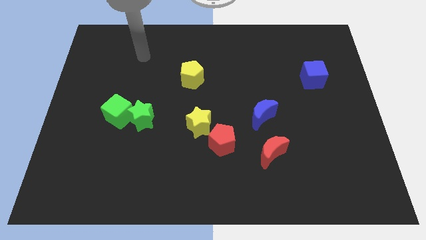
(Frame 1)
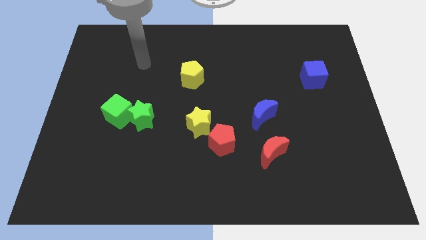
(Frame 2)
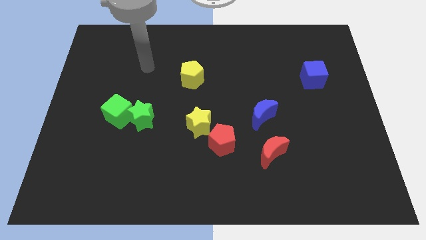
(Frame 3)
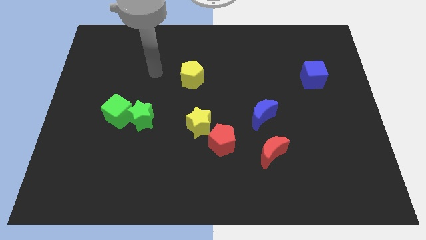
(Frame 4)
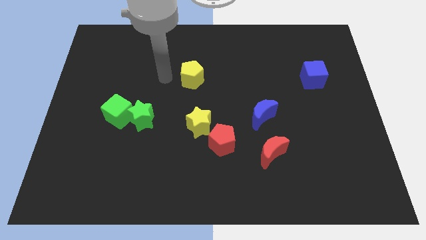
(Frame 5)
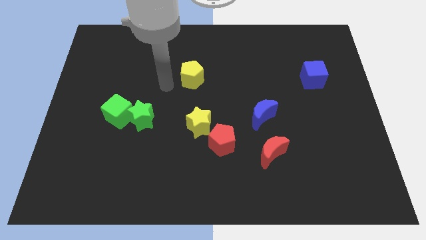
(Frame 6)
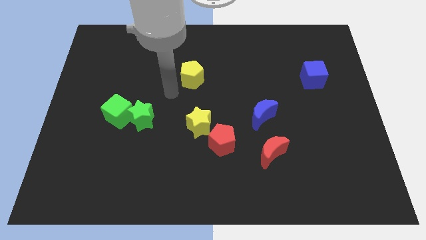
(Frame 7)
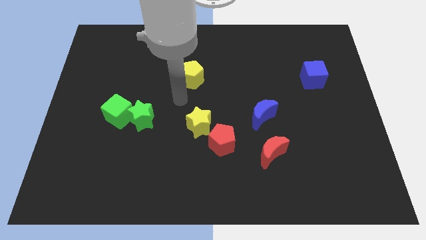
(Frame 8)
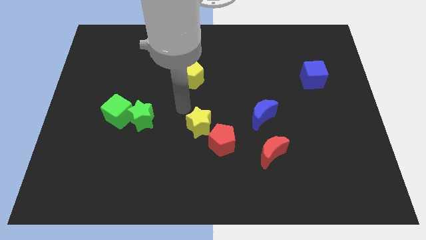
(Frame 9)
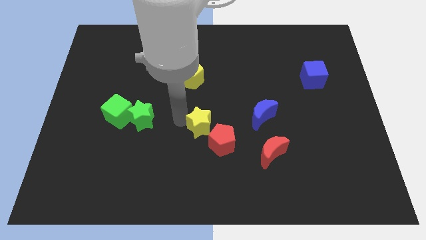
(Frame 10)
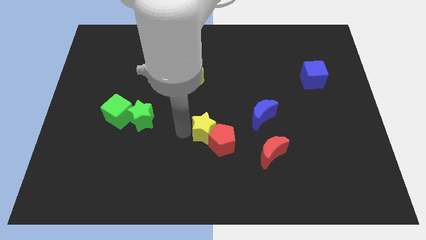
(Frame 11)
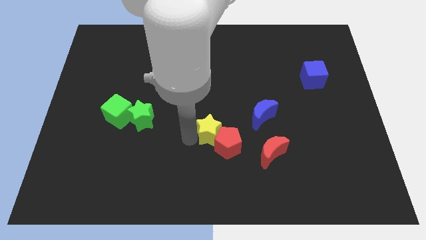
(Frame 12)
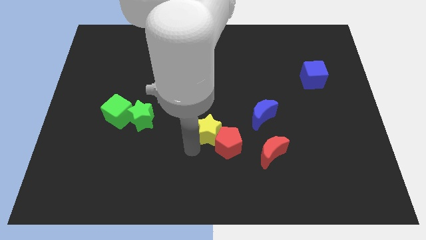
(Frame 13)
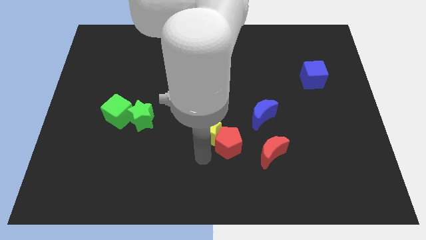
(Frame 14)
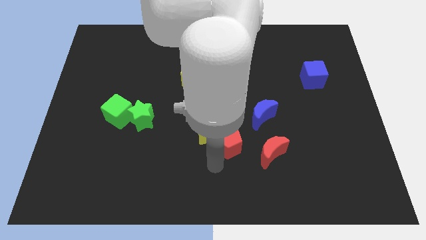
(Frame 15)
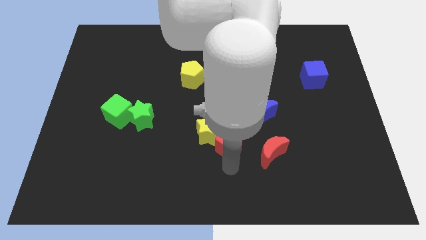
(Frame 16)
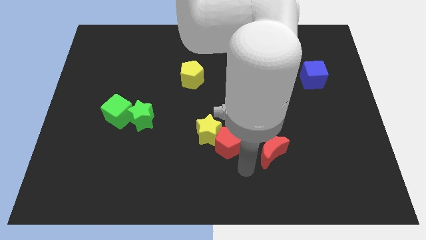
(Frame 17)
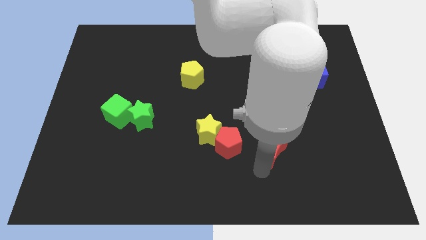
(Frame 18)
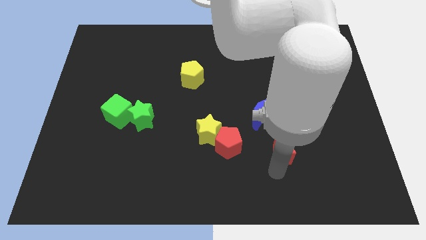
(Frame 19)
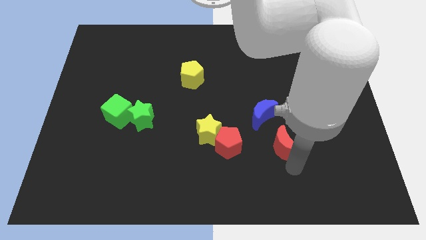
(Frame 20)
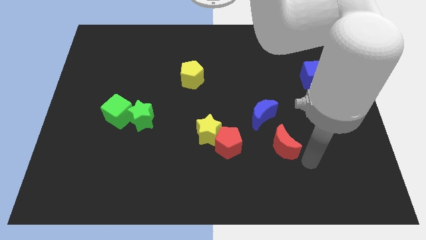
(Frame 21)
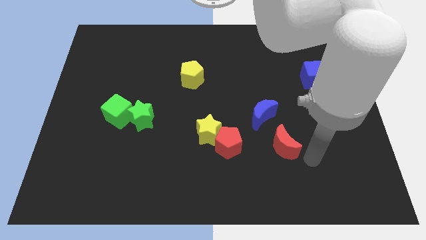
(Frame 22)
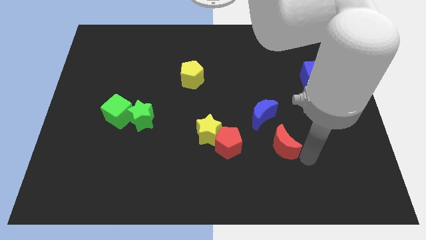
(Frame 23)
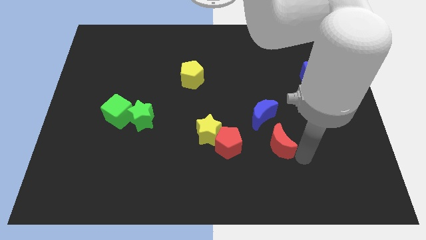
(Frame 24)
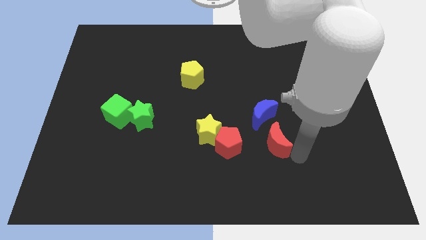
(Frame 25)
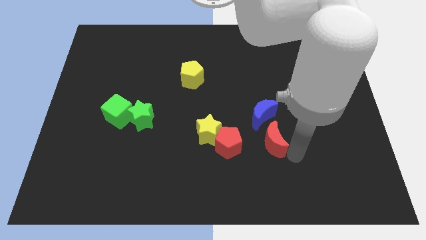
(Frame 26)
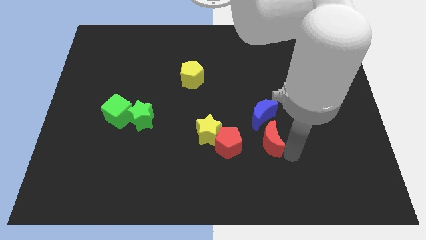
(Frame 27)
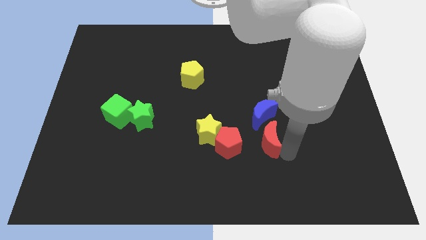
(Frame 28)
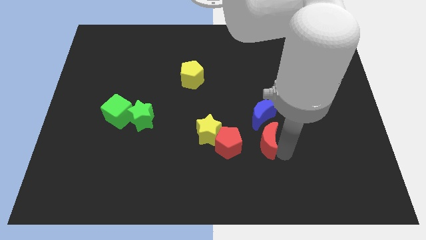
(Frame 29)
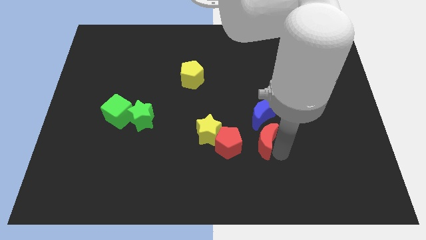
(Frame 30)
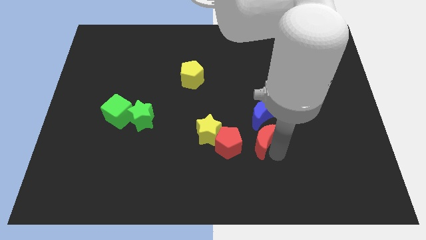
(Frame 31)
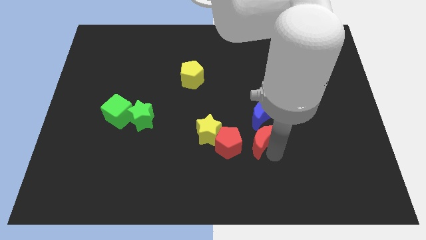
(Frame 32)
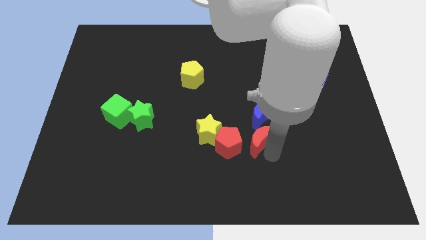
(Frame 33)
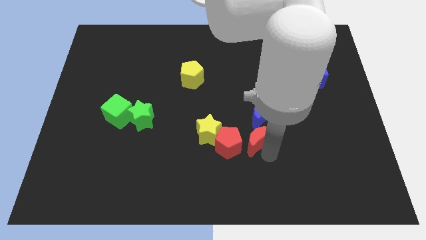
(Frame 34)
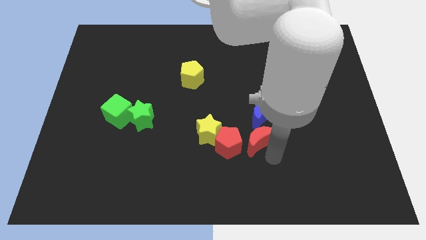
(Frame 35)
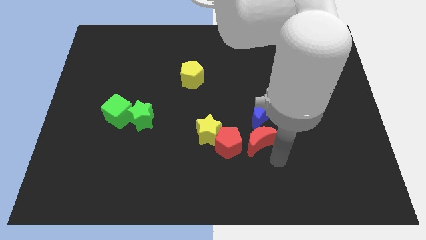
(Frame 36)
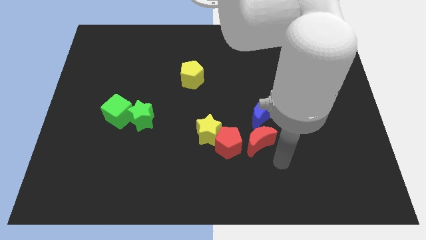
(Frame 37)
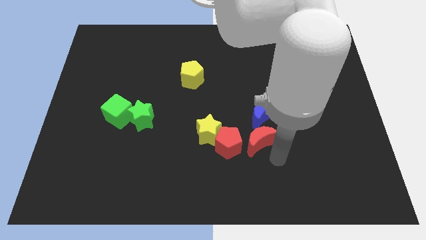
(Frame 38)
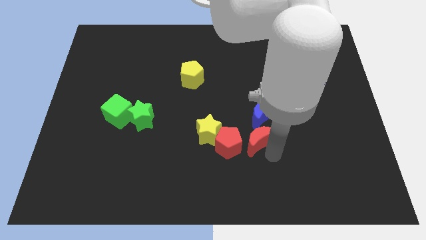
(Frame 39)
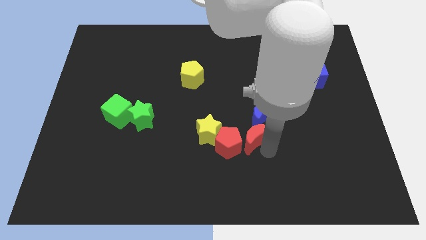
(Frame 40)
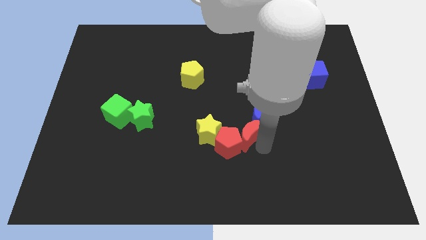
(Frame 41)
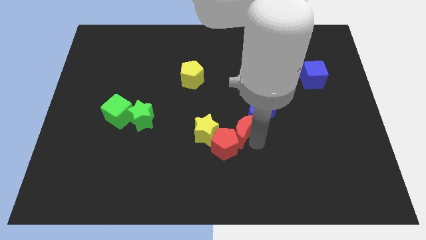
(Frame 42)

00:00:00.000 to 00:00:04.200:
slide the red moon upwards and to the left diagonally a bit

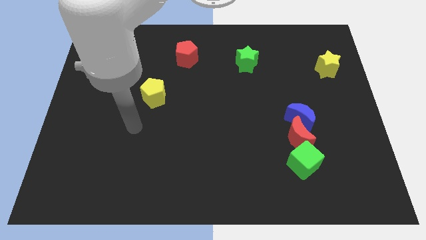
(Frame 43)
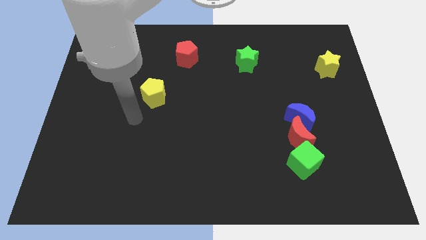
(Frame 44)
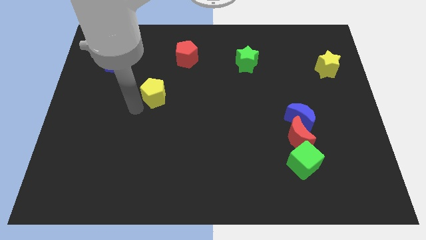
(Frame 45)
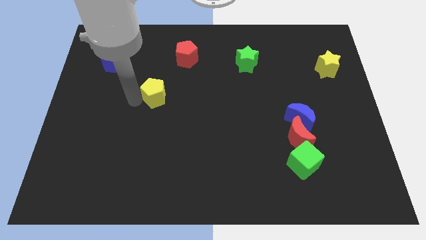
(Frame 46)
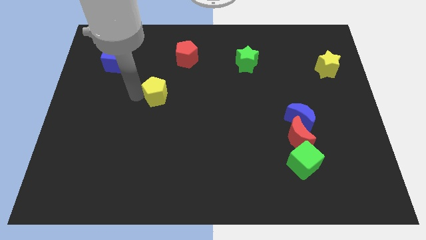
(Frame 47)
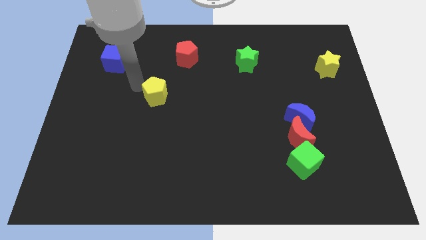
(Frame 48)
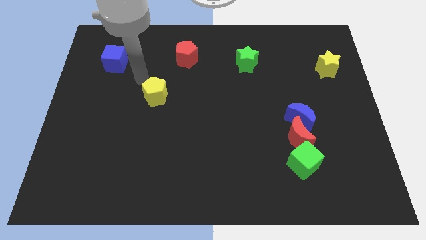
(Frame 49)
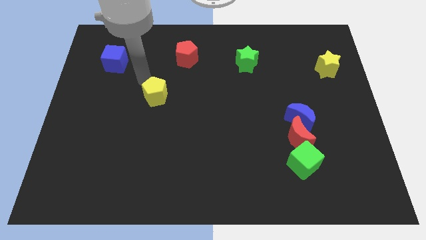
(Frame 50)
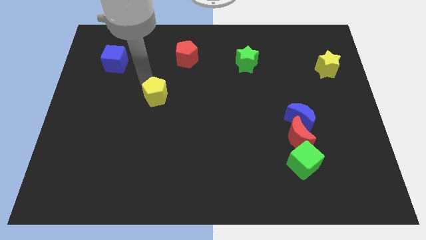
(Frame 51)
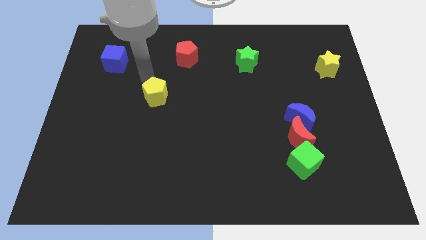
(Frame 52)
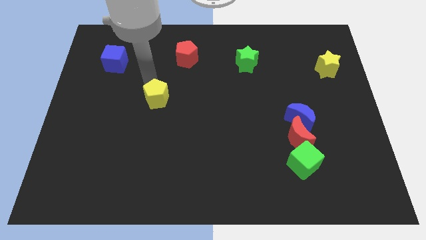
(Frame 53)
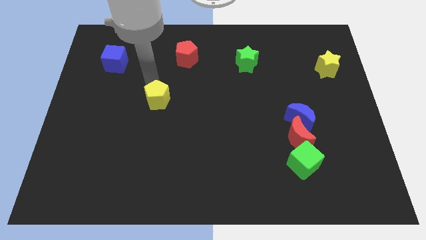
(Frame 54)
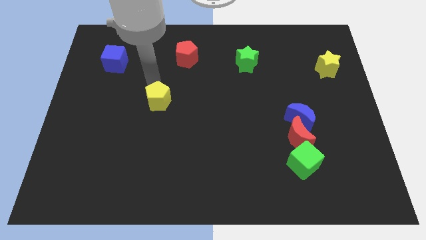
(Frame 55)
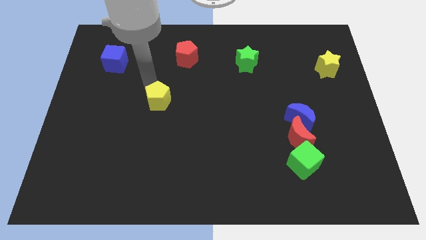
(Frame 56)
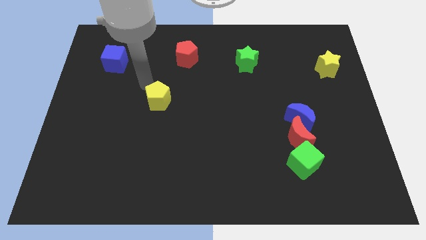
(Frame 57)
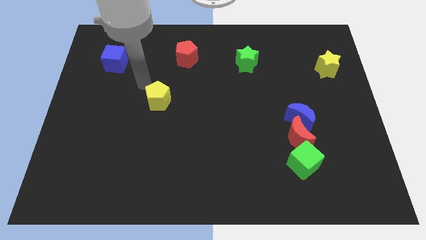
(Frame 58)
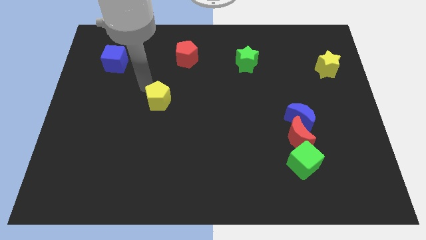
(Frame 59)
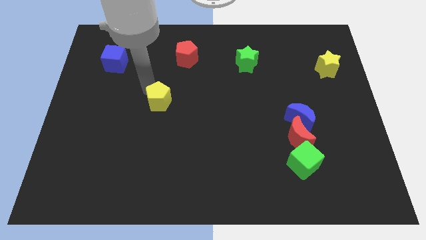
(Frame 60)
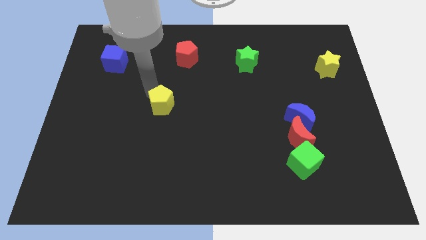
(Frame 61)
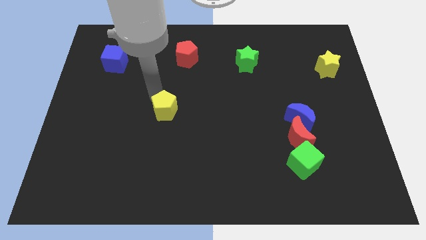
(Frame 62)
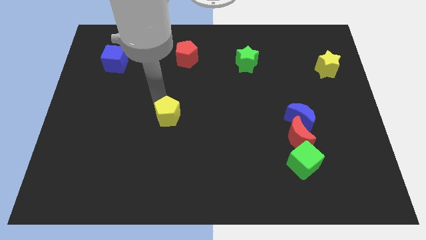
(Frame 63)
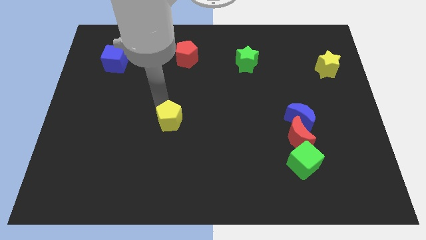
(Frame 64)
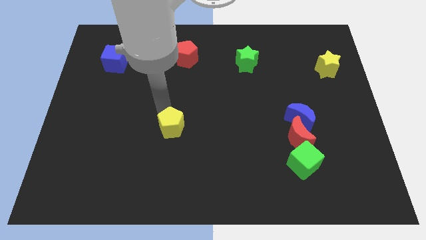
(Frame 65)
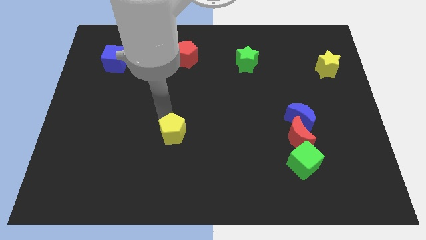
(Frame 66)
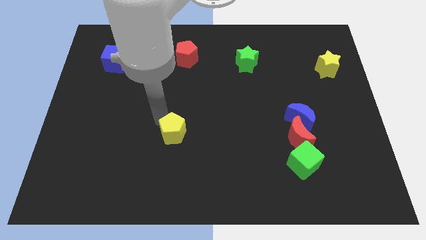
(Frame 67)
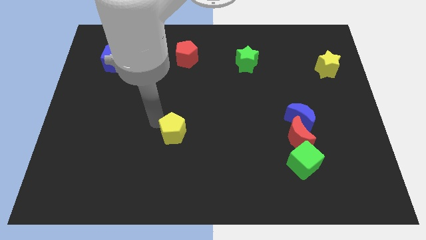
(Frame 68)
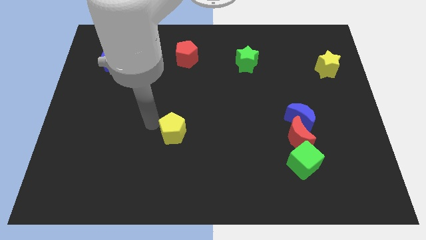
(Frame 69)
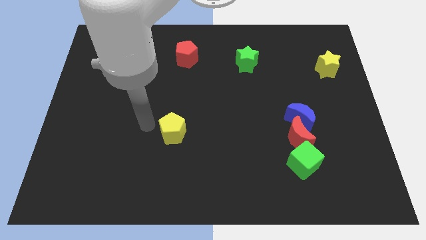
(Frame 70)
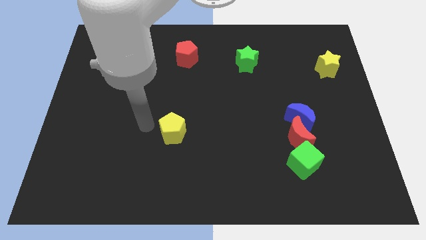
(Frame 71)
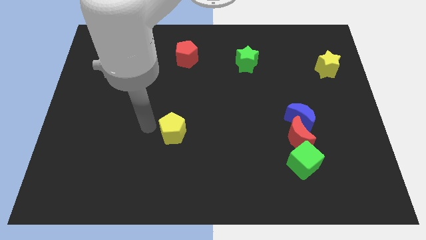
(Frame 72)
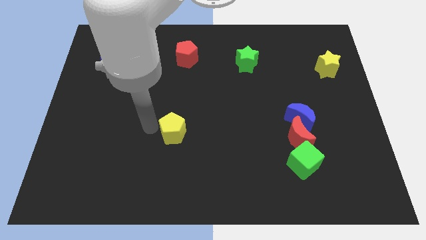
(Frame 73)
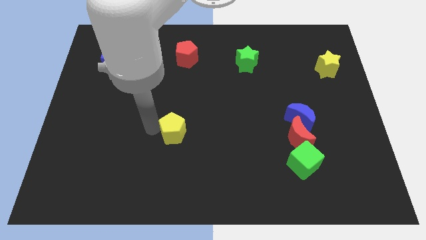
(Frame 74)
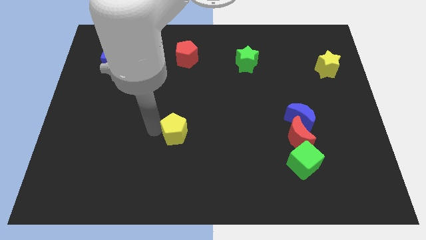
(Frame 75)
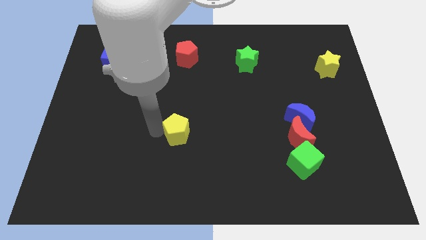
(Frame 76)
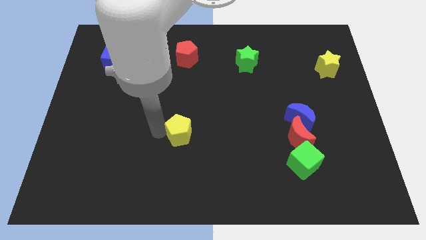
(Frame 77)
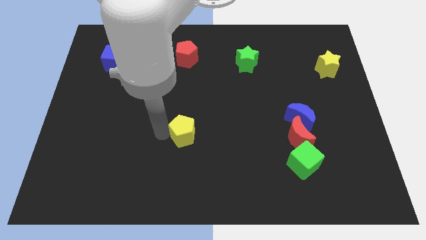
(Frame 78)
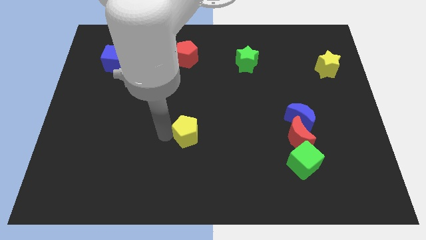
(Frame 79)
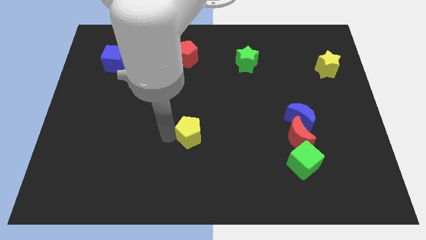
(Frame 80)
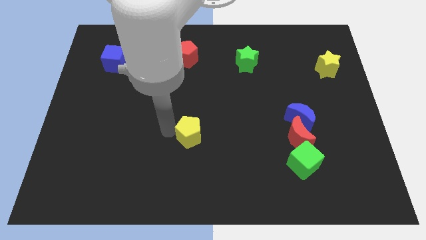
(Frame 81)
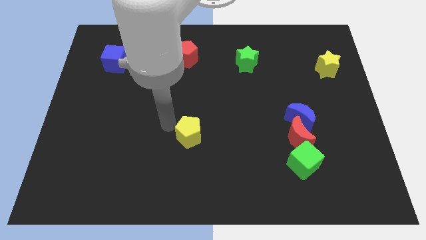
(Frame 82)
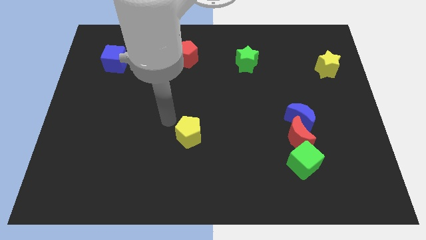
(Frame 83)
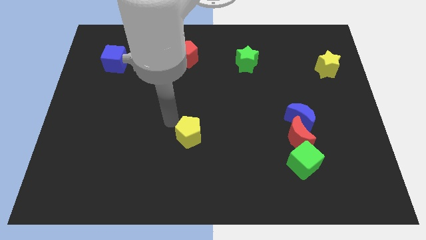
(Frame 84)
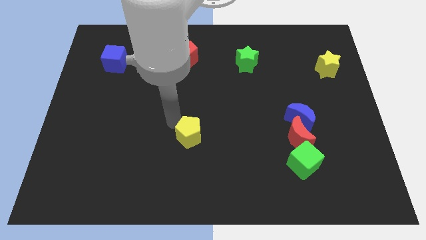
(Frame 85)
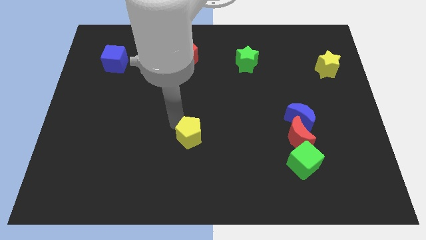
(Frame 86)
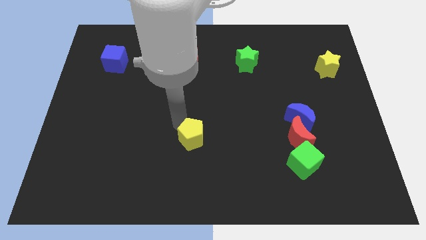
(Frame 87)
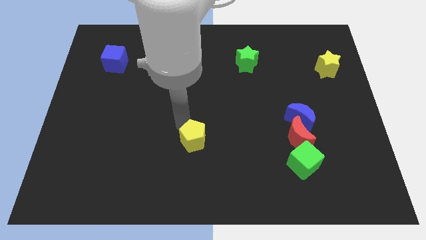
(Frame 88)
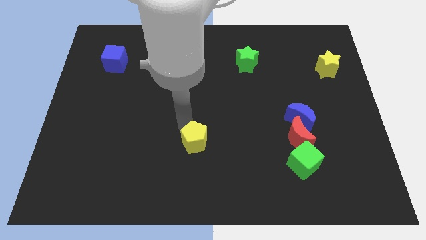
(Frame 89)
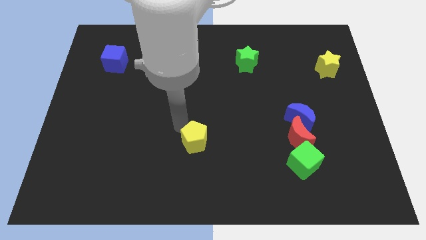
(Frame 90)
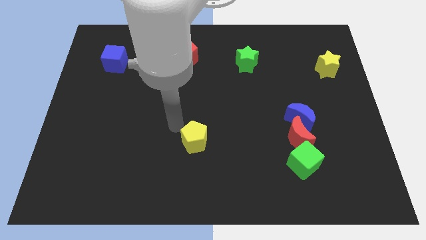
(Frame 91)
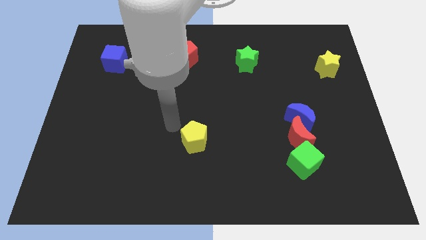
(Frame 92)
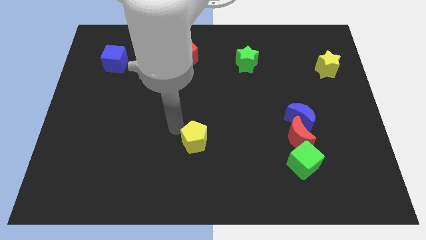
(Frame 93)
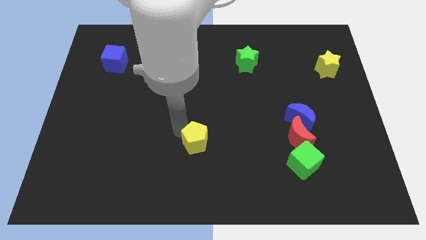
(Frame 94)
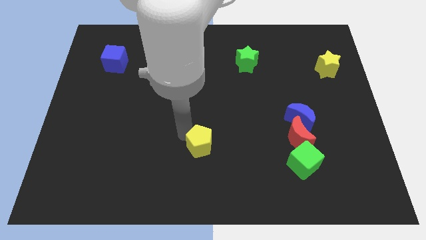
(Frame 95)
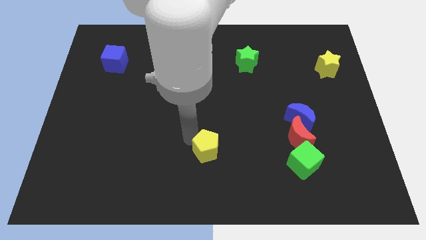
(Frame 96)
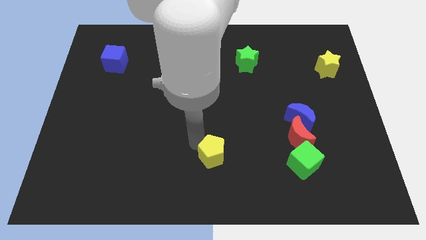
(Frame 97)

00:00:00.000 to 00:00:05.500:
push the yellow pentagon downwards and then to the right
